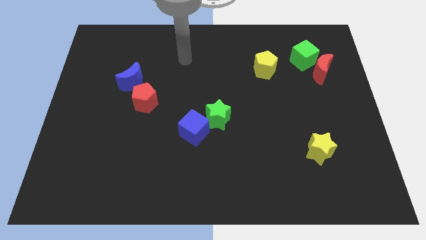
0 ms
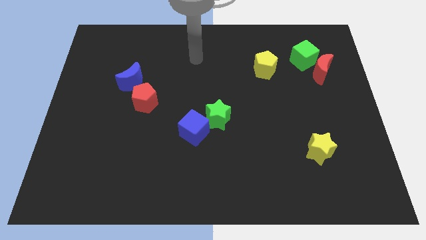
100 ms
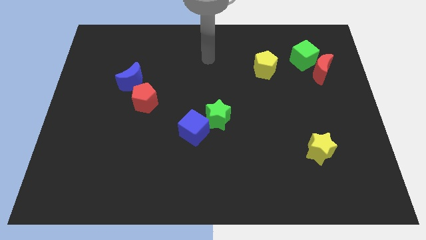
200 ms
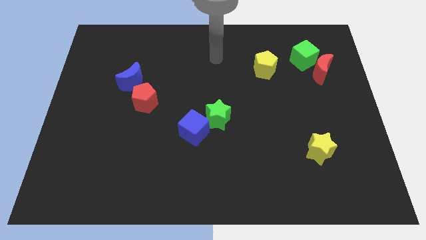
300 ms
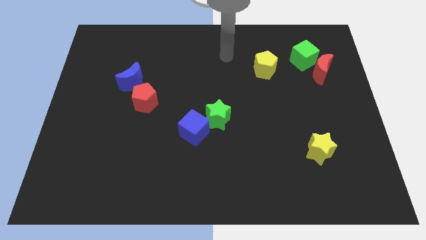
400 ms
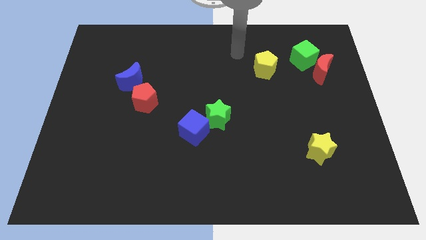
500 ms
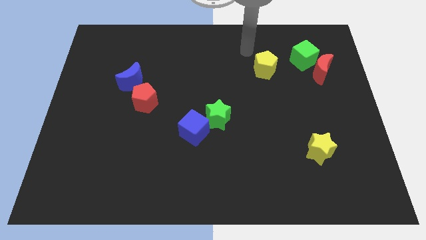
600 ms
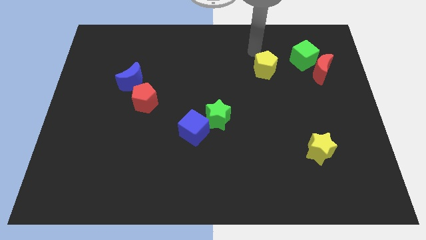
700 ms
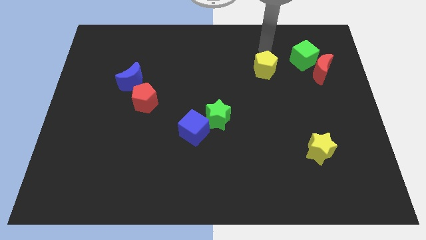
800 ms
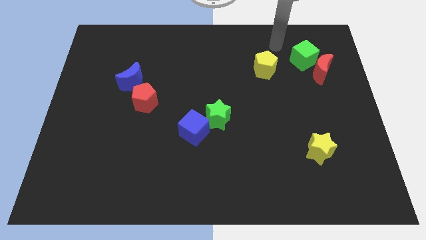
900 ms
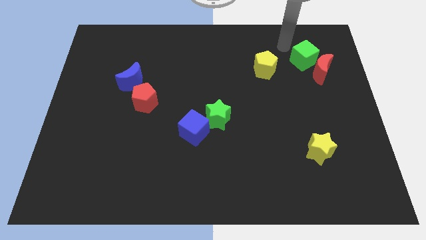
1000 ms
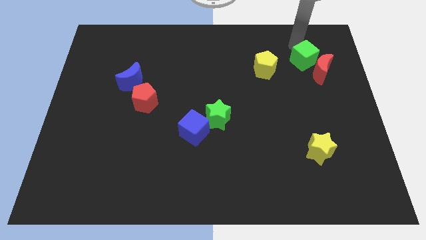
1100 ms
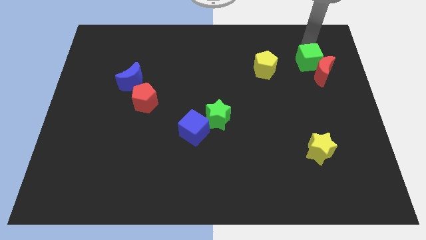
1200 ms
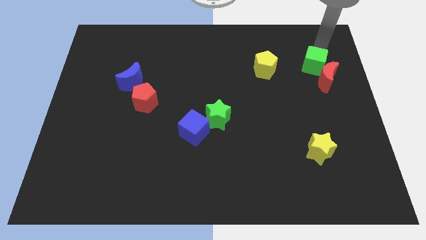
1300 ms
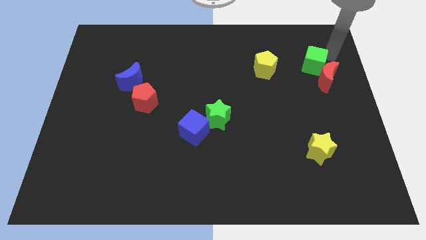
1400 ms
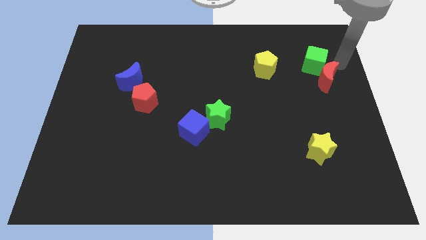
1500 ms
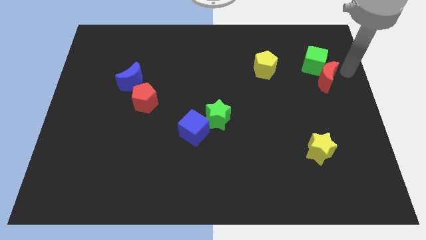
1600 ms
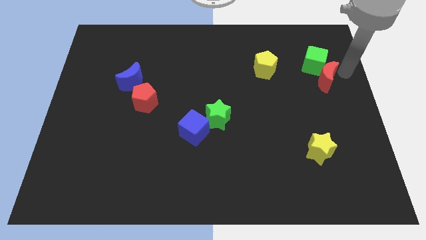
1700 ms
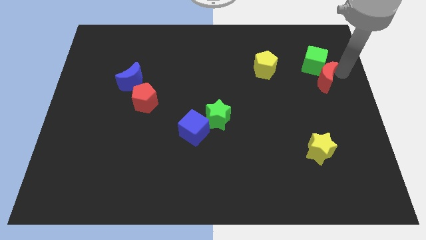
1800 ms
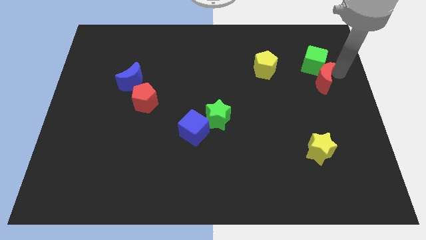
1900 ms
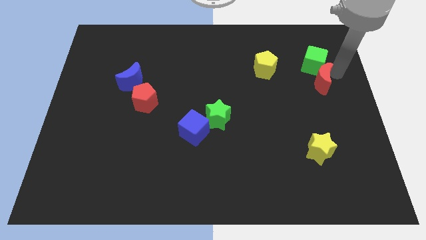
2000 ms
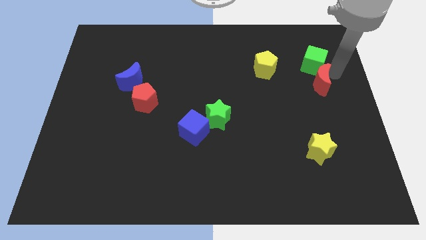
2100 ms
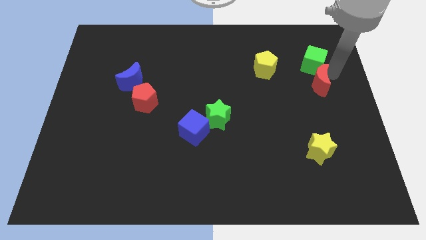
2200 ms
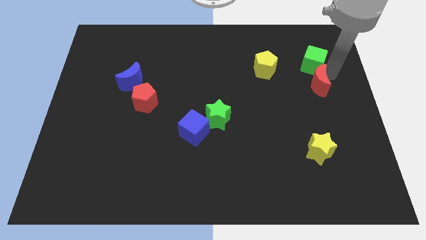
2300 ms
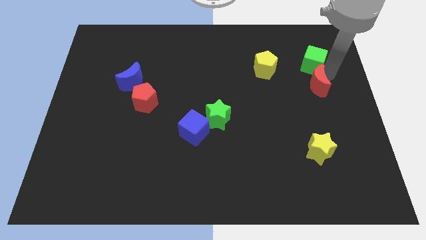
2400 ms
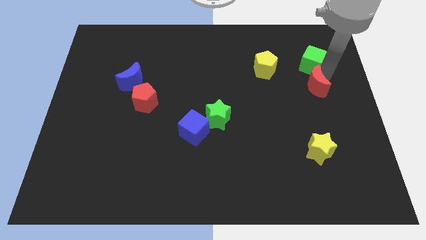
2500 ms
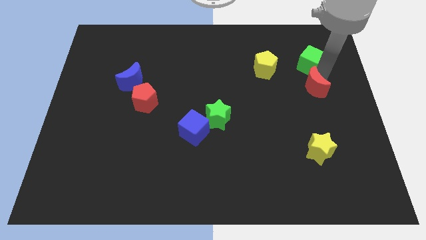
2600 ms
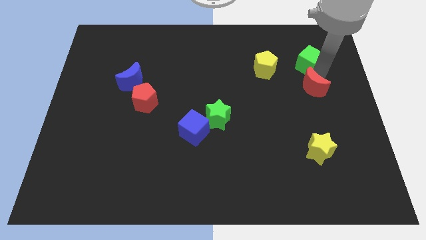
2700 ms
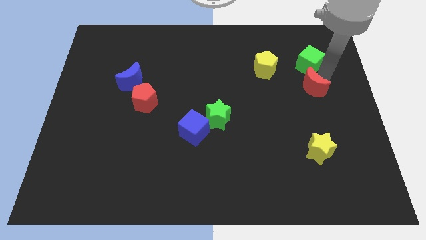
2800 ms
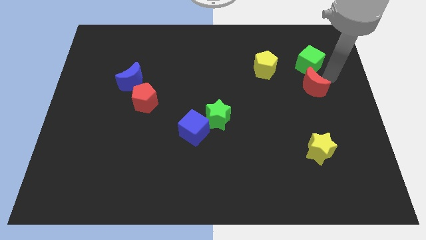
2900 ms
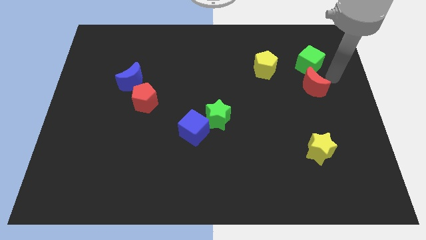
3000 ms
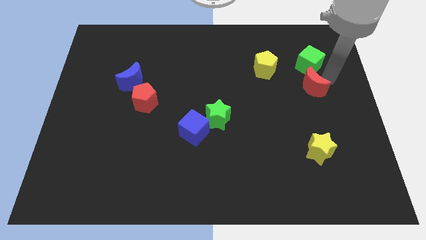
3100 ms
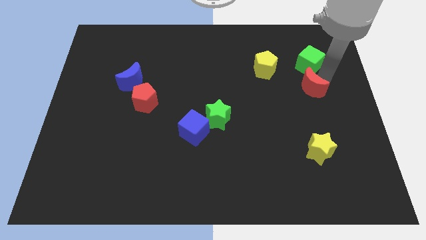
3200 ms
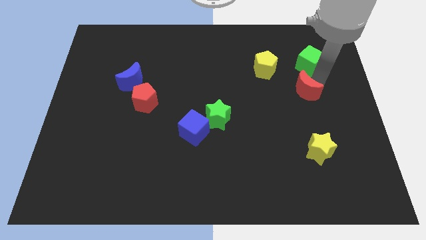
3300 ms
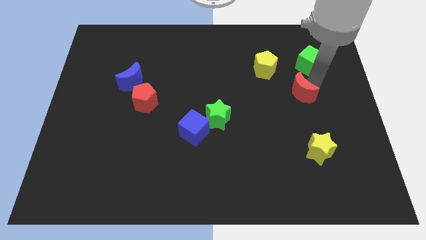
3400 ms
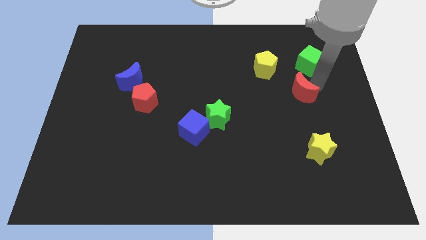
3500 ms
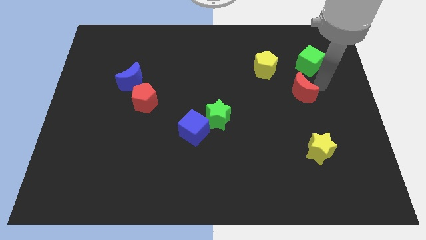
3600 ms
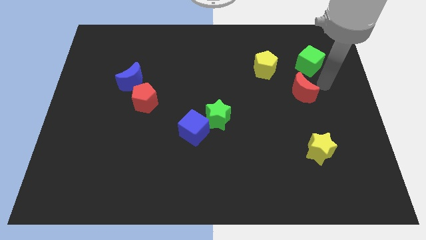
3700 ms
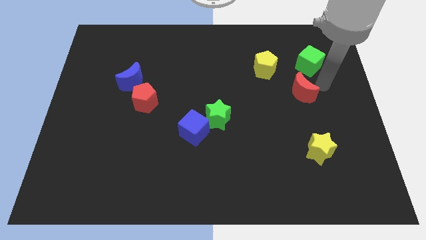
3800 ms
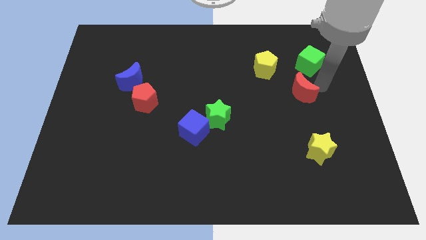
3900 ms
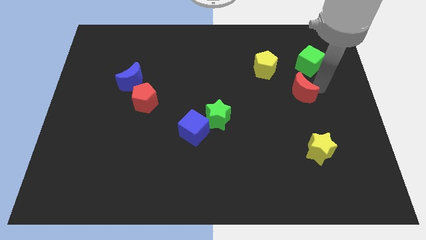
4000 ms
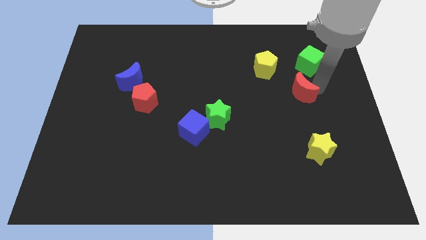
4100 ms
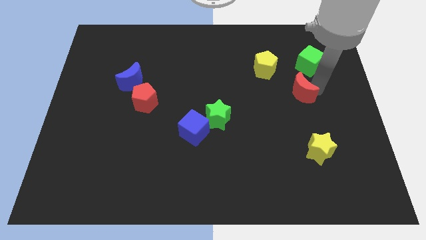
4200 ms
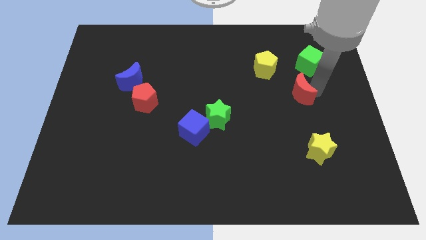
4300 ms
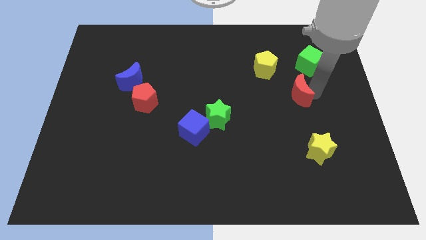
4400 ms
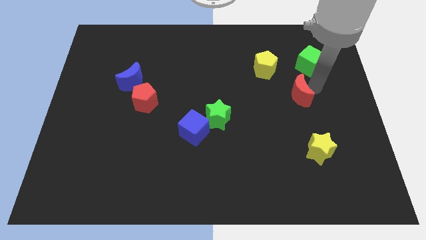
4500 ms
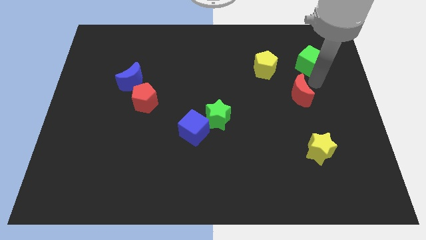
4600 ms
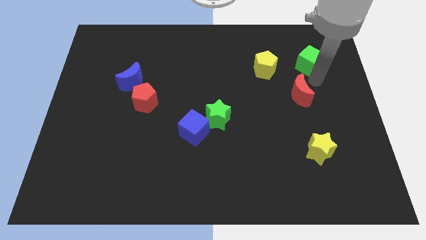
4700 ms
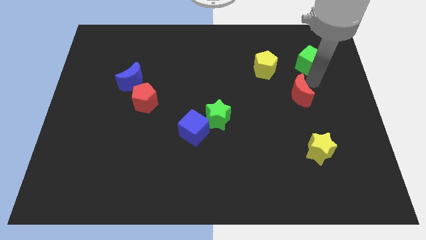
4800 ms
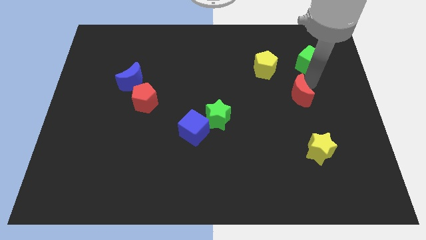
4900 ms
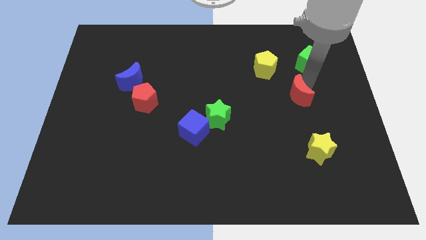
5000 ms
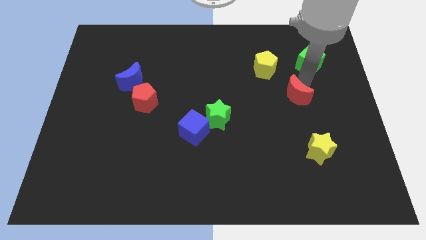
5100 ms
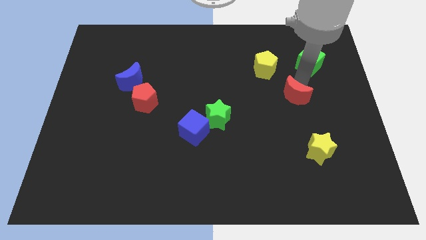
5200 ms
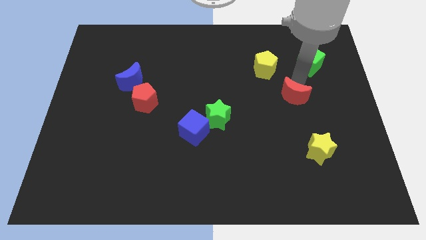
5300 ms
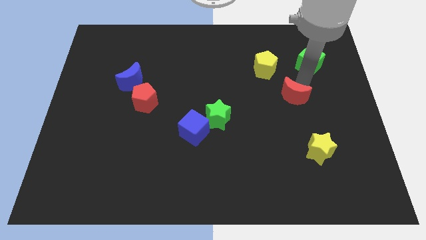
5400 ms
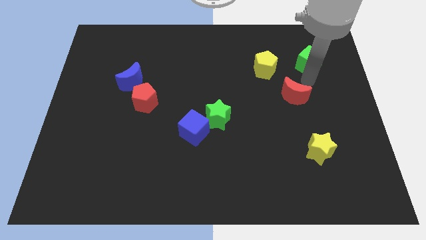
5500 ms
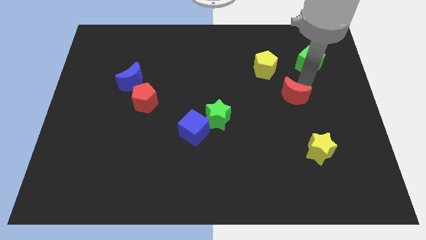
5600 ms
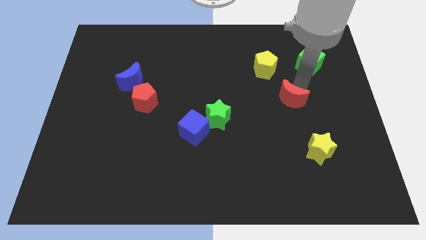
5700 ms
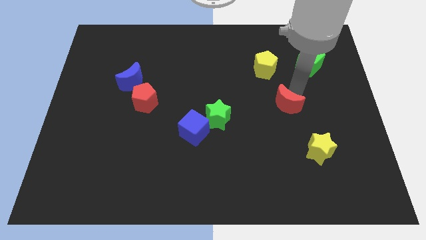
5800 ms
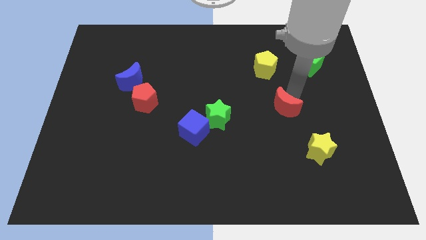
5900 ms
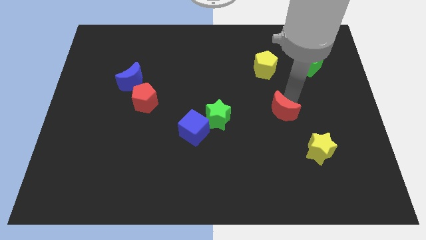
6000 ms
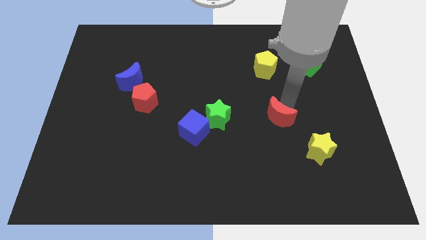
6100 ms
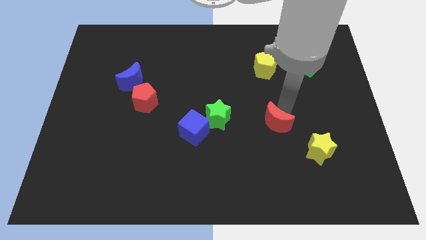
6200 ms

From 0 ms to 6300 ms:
move the red moon downwards and then to the left

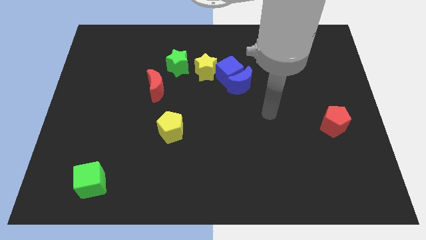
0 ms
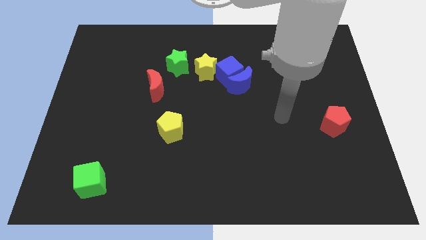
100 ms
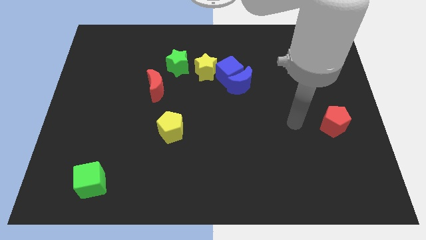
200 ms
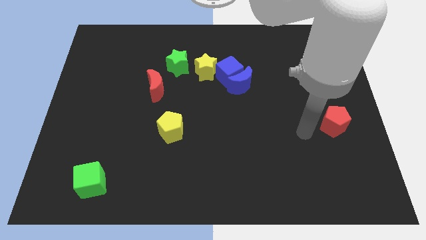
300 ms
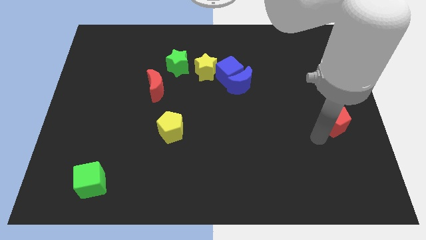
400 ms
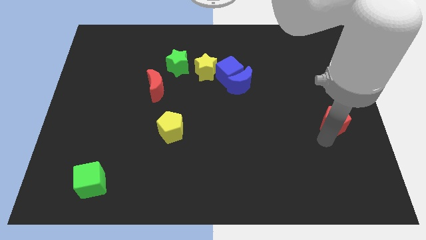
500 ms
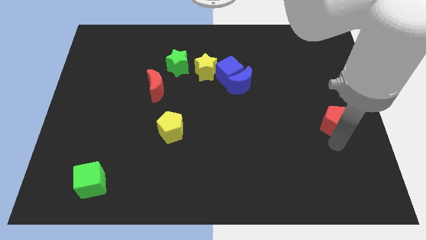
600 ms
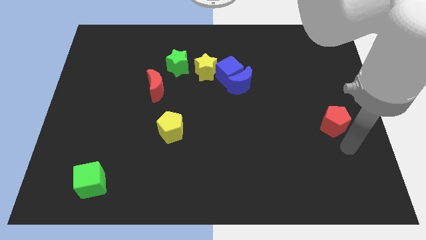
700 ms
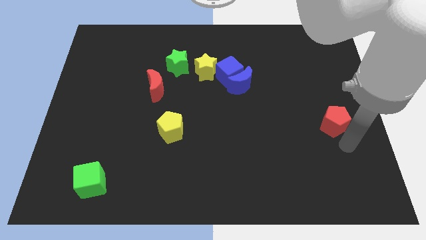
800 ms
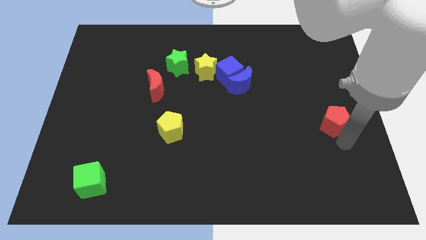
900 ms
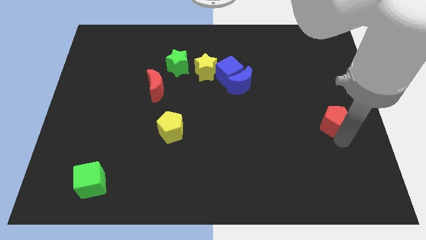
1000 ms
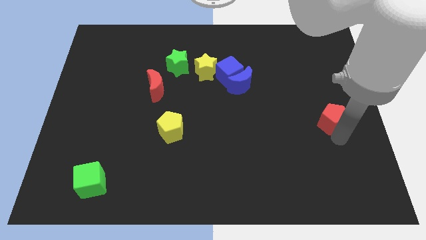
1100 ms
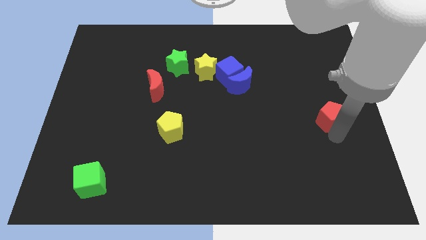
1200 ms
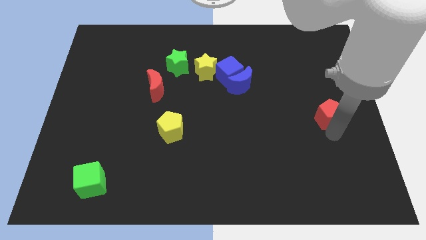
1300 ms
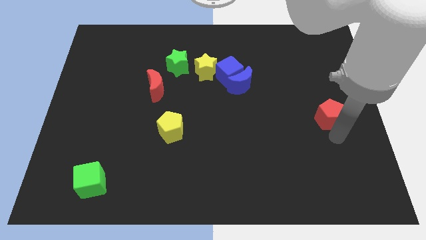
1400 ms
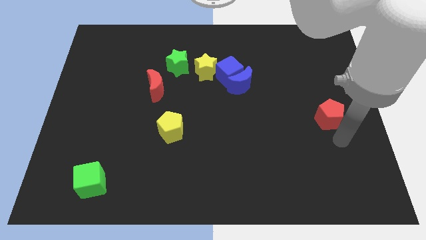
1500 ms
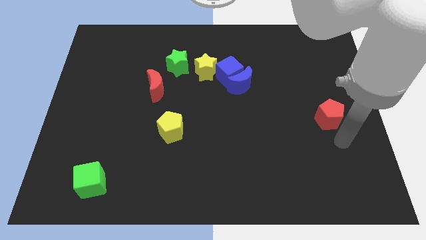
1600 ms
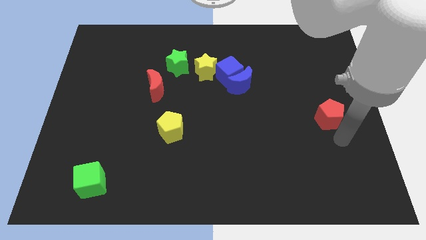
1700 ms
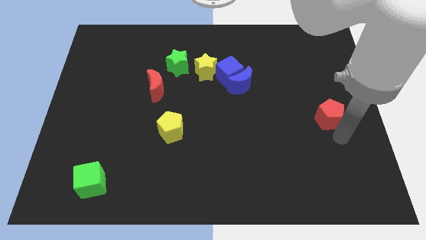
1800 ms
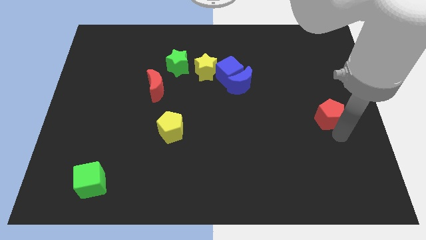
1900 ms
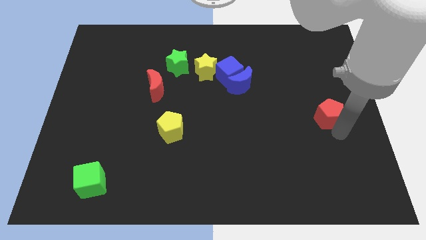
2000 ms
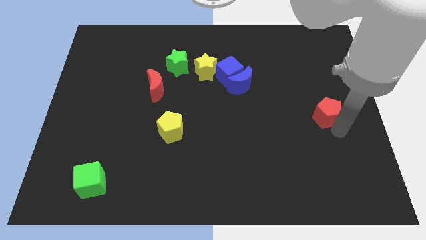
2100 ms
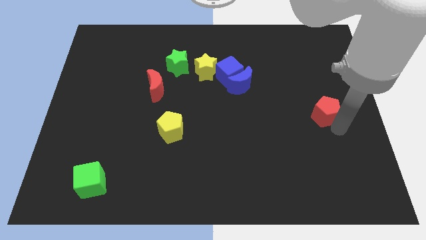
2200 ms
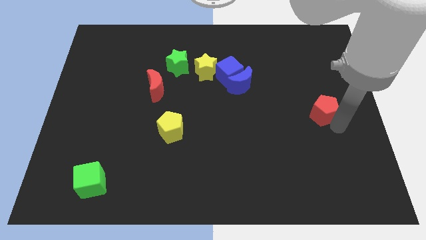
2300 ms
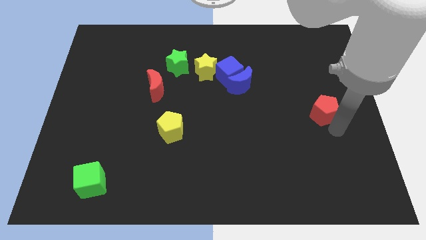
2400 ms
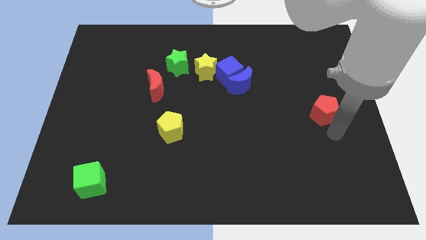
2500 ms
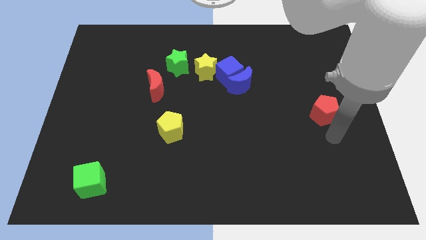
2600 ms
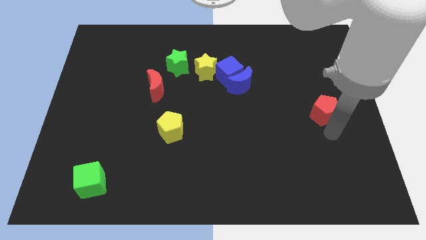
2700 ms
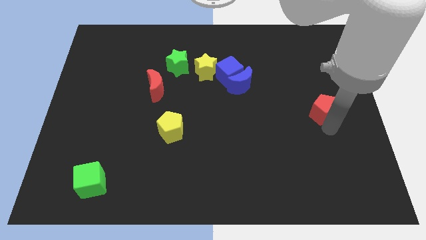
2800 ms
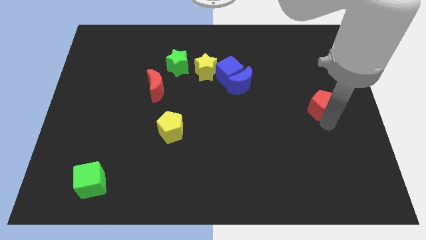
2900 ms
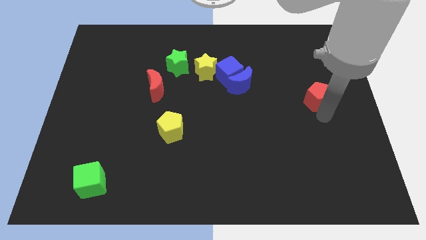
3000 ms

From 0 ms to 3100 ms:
slightly move the red pentagon upwards
